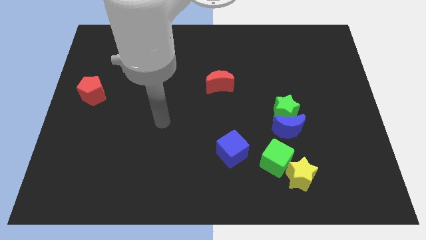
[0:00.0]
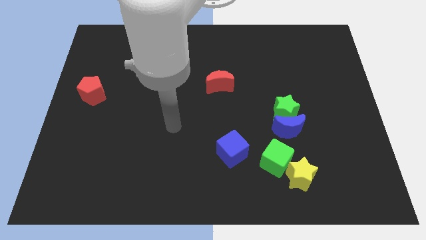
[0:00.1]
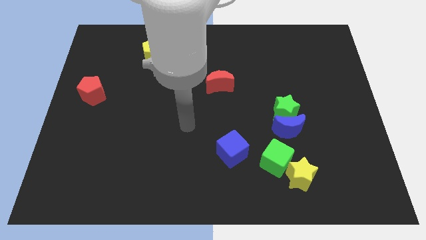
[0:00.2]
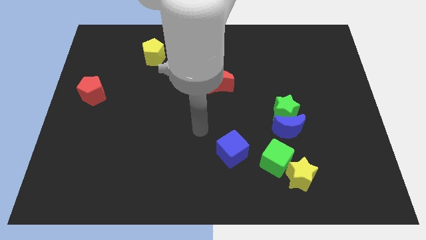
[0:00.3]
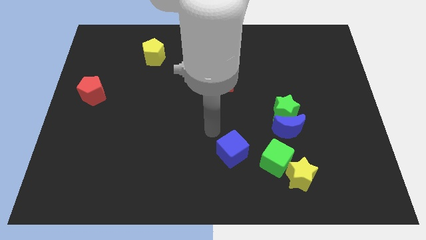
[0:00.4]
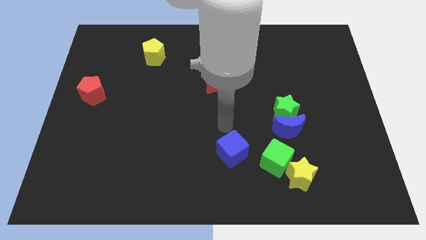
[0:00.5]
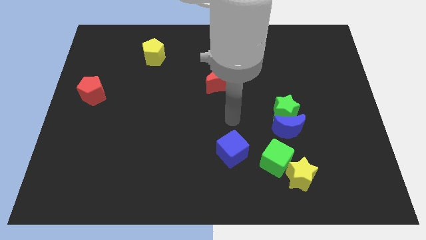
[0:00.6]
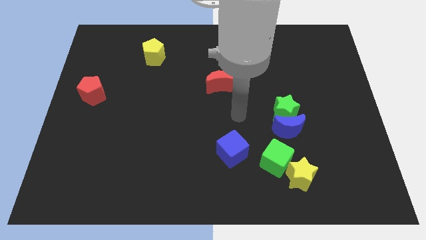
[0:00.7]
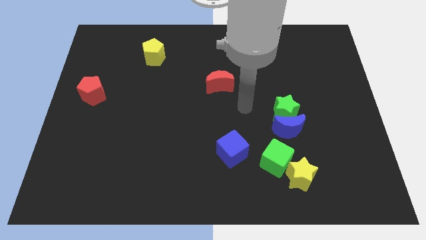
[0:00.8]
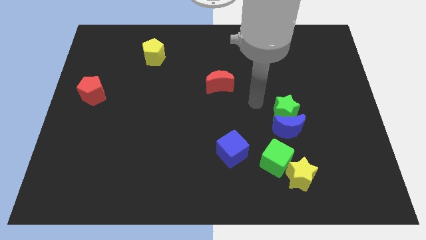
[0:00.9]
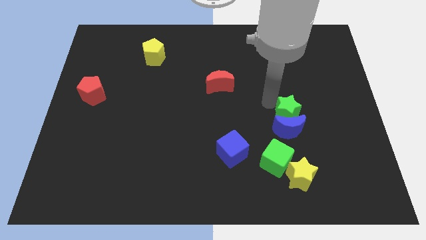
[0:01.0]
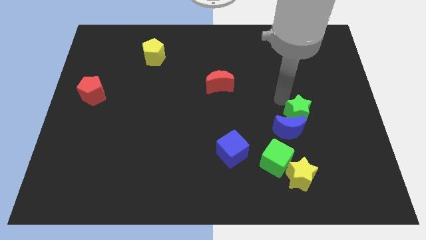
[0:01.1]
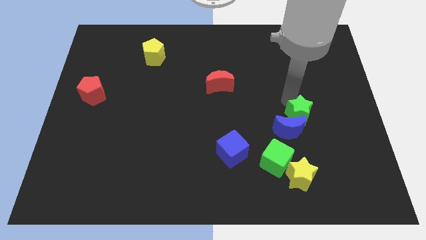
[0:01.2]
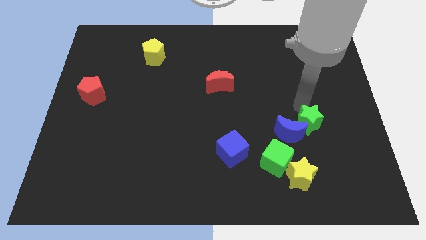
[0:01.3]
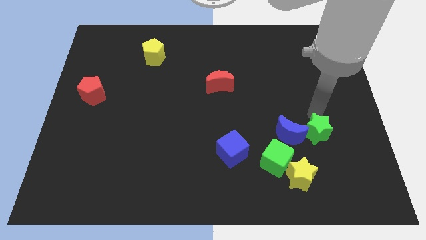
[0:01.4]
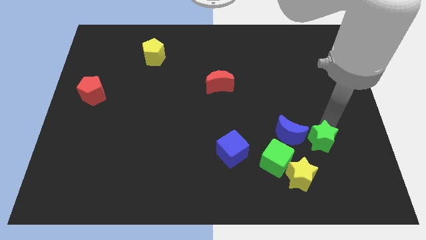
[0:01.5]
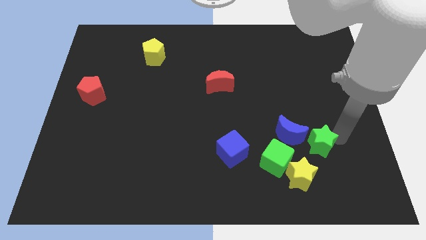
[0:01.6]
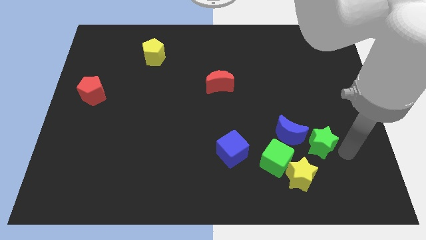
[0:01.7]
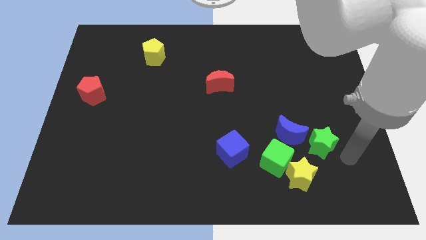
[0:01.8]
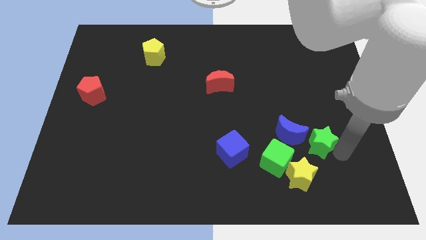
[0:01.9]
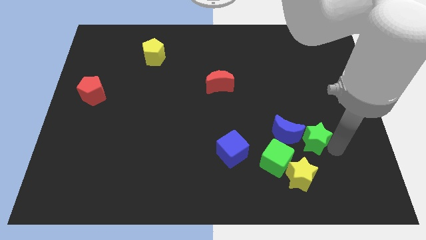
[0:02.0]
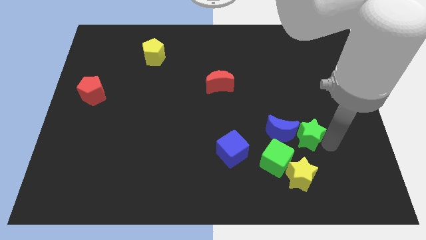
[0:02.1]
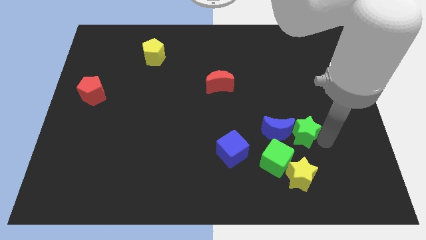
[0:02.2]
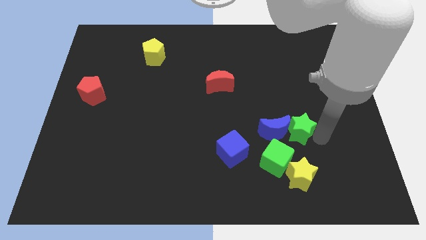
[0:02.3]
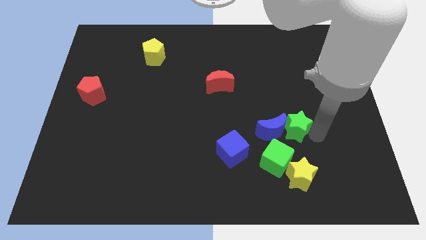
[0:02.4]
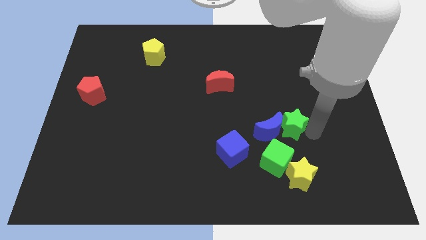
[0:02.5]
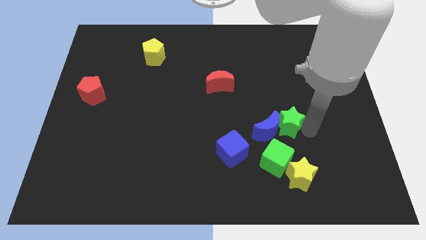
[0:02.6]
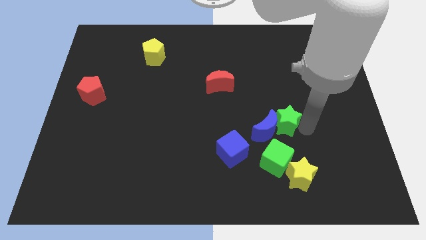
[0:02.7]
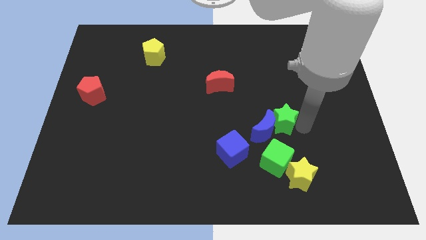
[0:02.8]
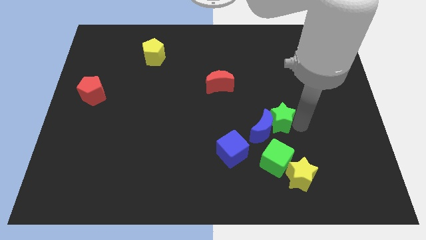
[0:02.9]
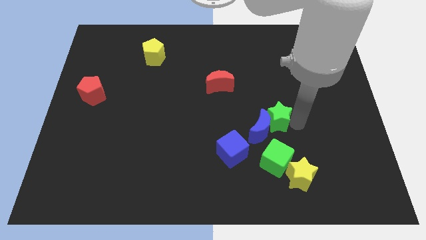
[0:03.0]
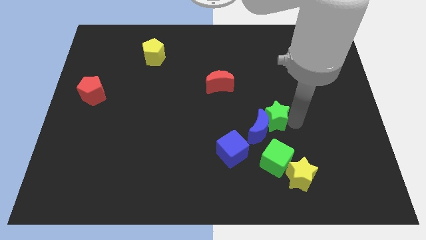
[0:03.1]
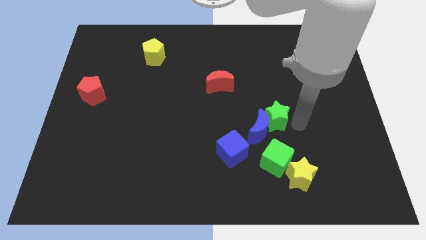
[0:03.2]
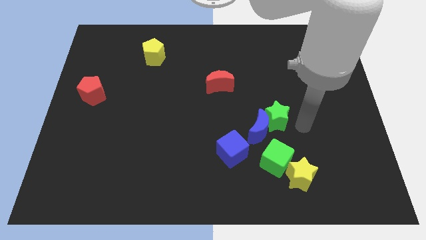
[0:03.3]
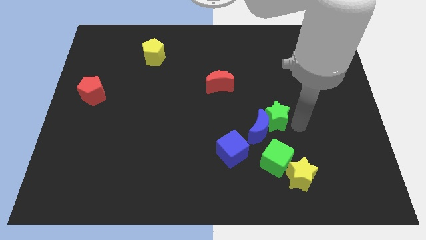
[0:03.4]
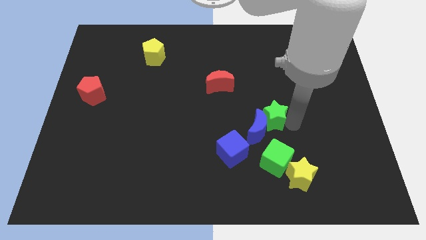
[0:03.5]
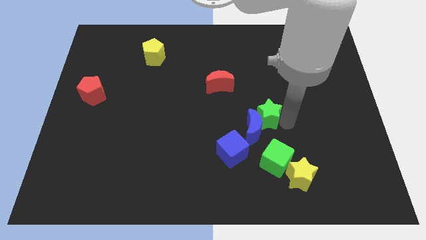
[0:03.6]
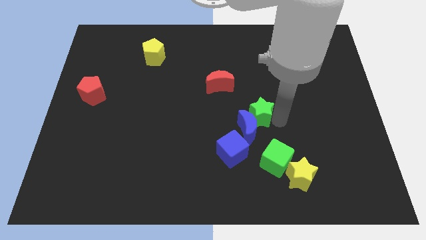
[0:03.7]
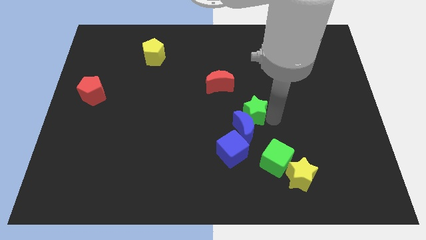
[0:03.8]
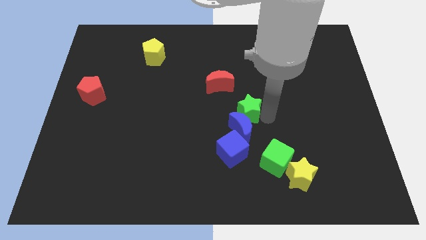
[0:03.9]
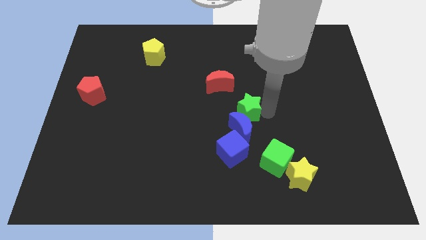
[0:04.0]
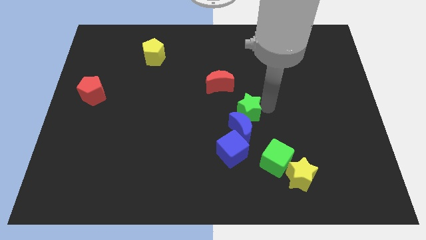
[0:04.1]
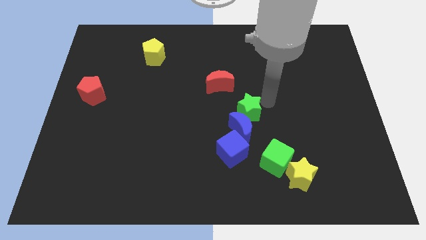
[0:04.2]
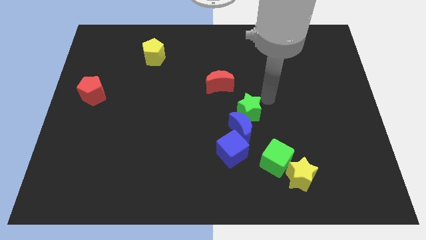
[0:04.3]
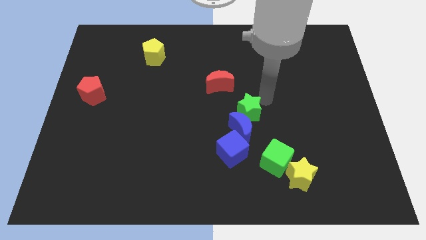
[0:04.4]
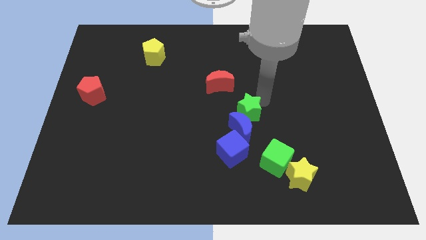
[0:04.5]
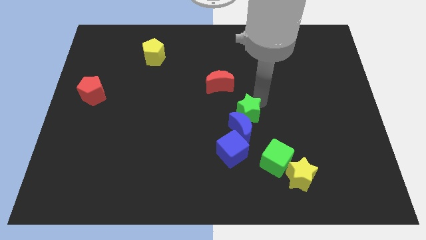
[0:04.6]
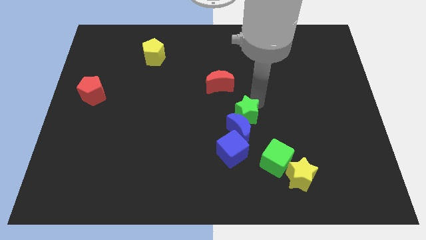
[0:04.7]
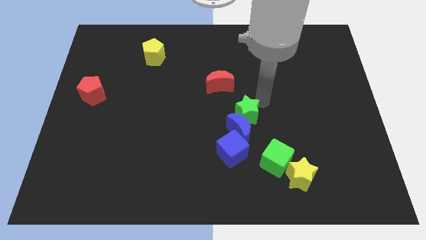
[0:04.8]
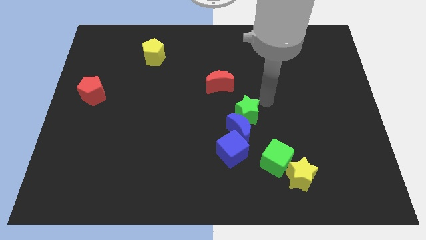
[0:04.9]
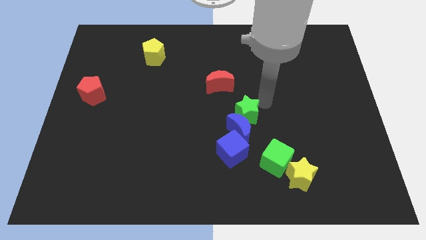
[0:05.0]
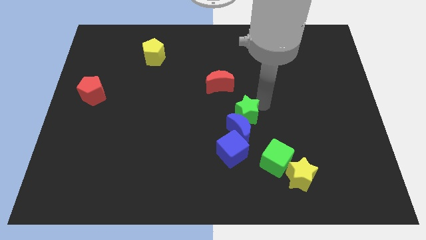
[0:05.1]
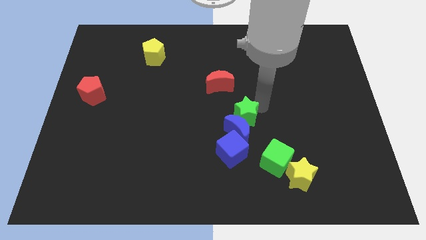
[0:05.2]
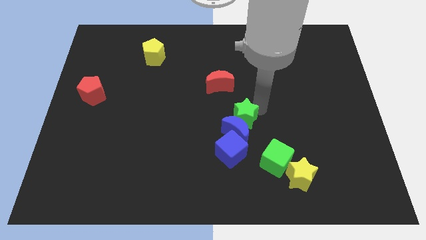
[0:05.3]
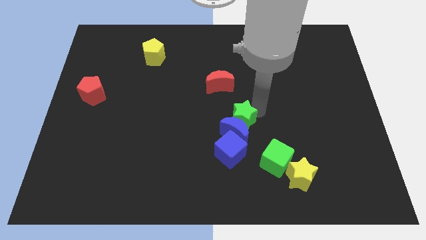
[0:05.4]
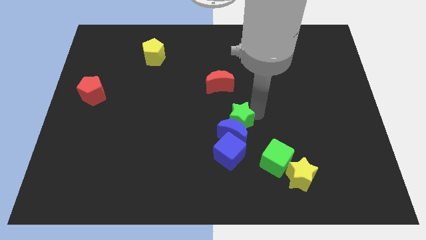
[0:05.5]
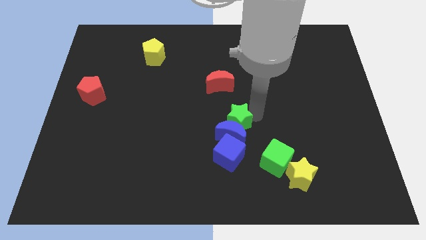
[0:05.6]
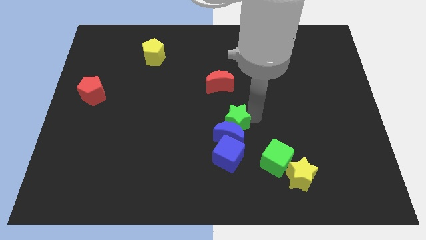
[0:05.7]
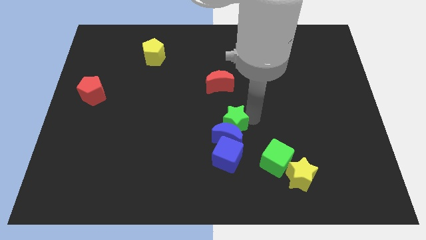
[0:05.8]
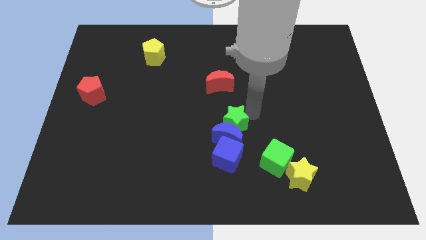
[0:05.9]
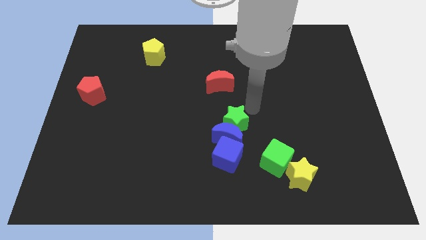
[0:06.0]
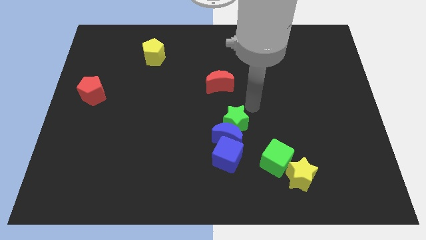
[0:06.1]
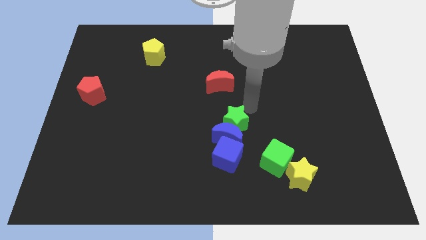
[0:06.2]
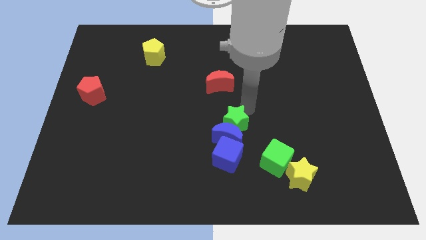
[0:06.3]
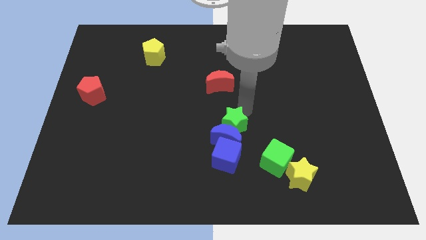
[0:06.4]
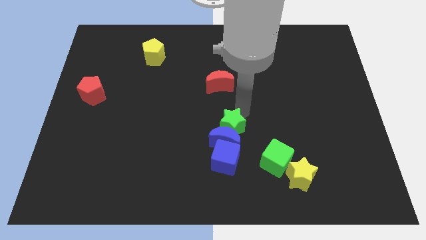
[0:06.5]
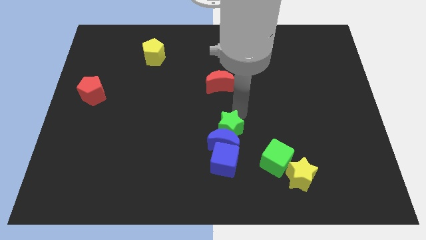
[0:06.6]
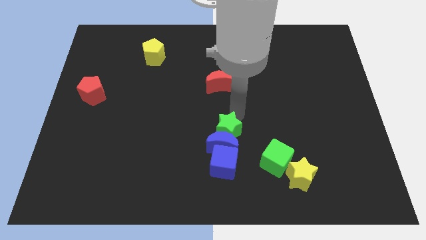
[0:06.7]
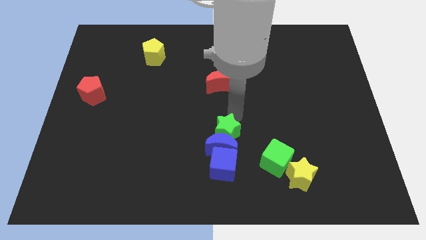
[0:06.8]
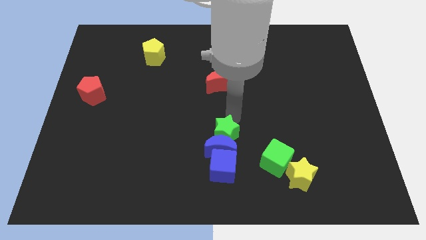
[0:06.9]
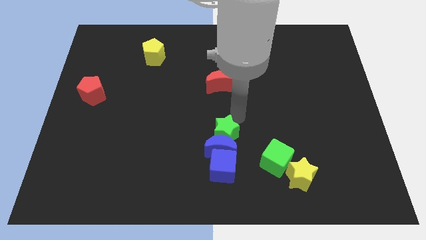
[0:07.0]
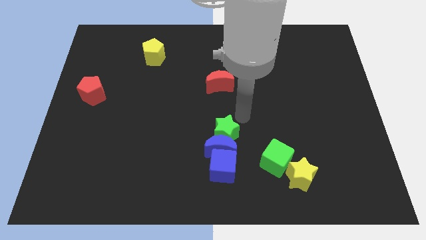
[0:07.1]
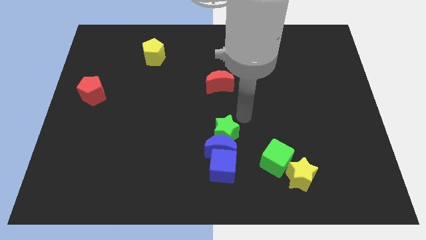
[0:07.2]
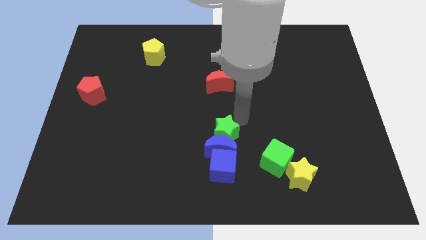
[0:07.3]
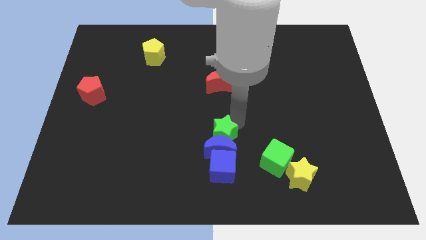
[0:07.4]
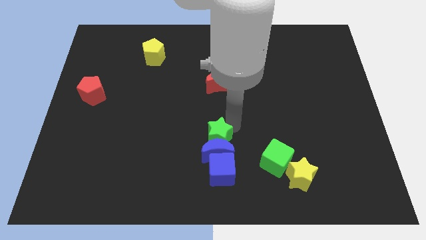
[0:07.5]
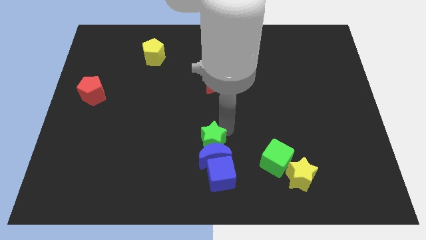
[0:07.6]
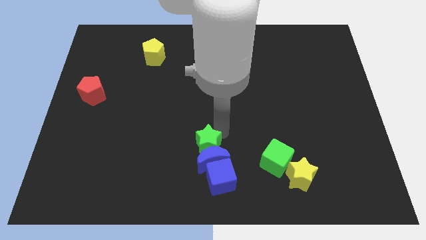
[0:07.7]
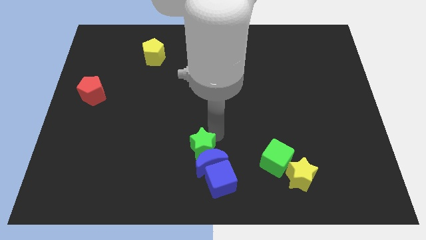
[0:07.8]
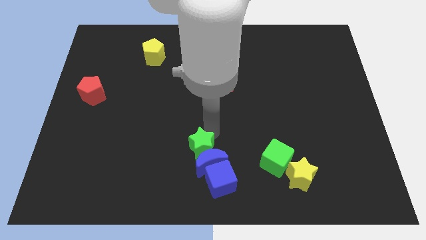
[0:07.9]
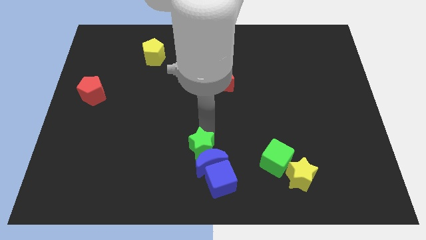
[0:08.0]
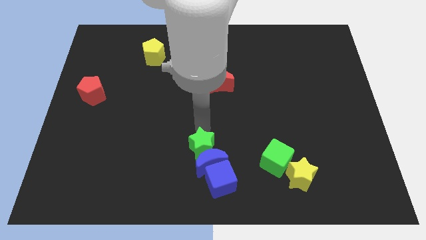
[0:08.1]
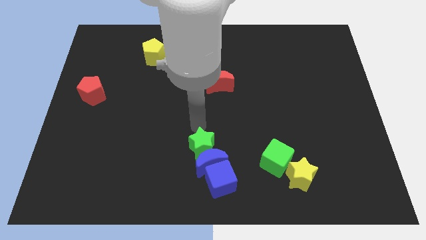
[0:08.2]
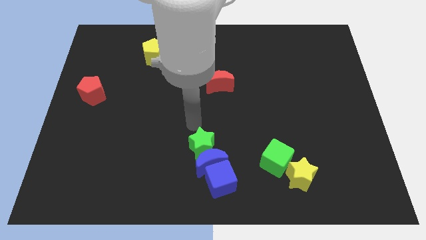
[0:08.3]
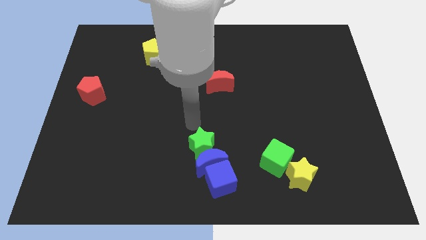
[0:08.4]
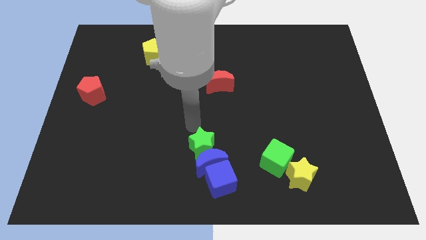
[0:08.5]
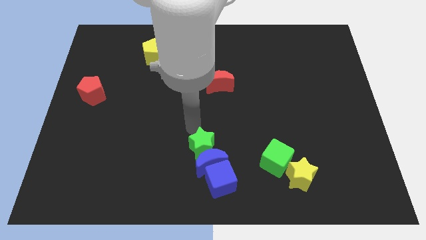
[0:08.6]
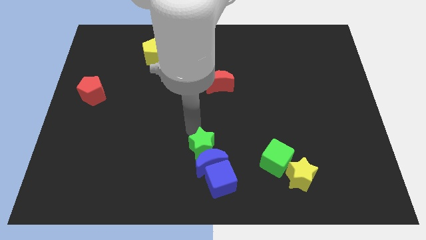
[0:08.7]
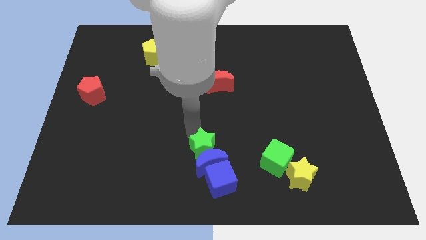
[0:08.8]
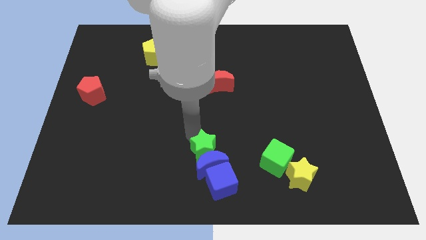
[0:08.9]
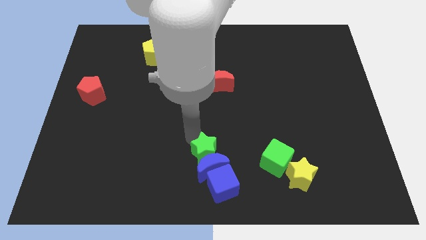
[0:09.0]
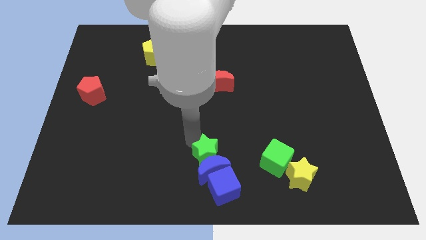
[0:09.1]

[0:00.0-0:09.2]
put the green star to the bottom
